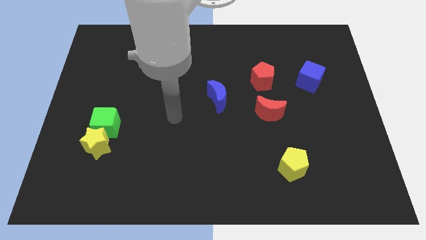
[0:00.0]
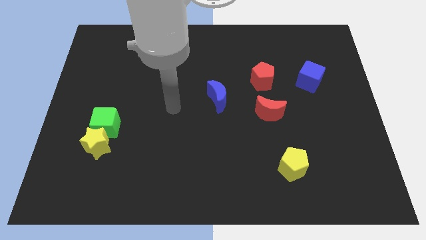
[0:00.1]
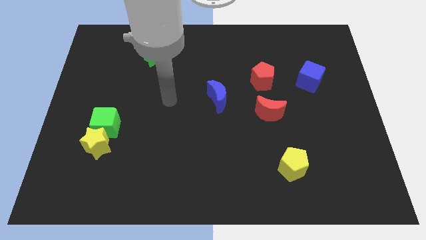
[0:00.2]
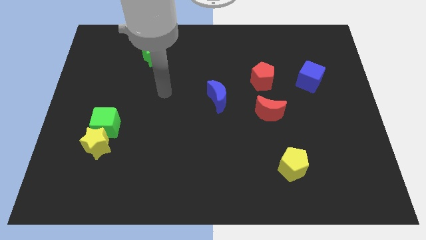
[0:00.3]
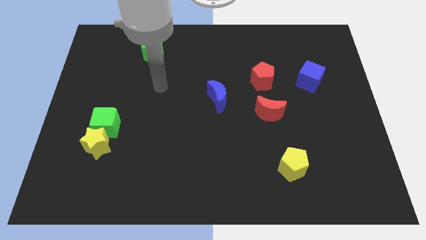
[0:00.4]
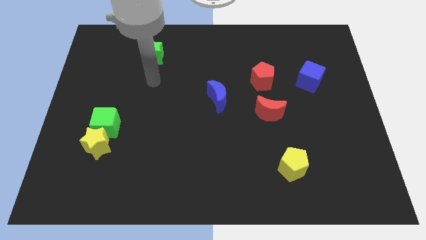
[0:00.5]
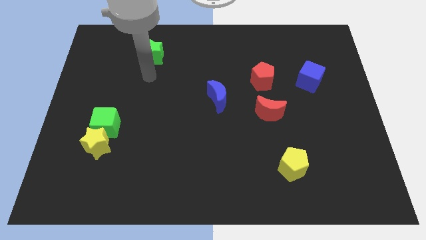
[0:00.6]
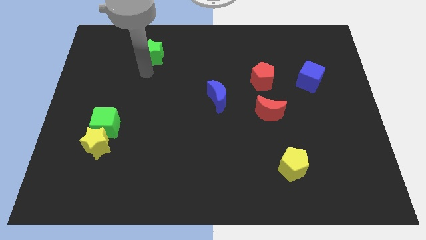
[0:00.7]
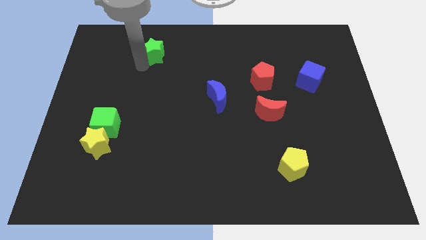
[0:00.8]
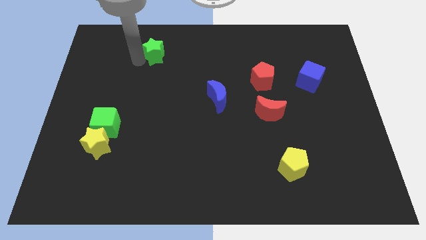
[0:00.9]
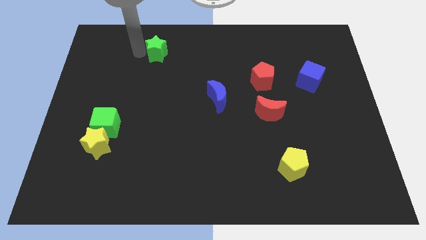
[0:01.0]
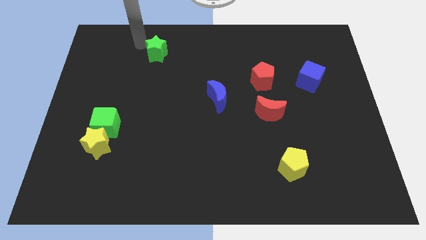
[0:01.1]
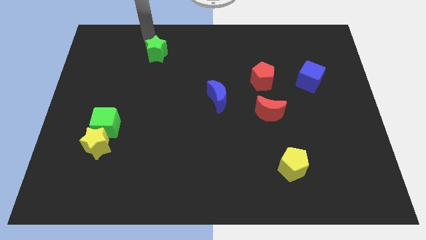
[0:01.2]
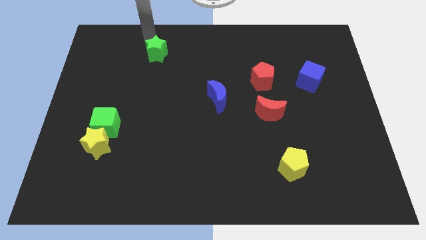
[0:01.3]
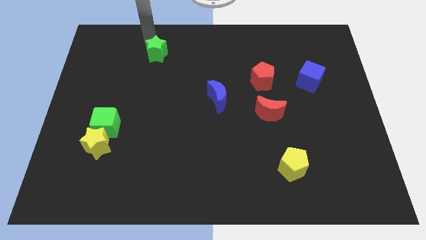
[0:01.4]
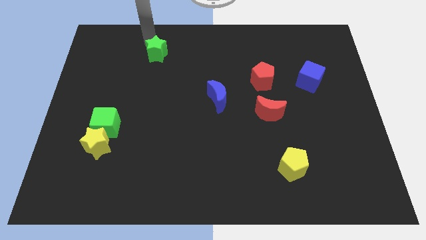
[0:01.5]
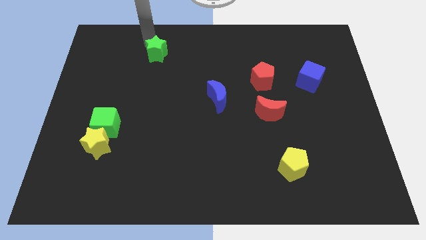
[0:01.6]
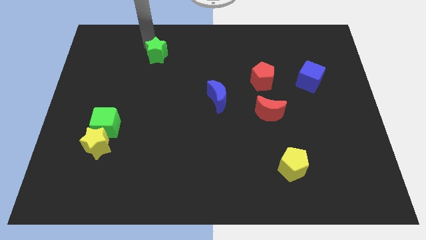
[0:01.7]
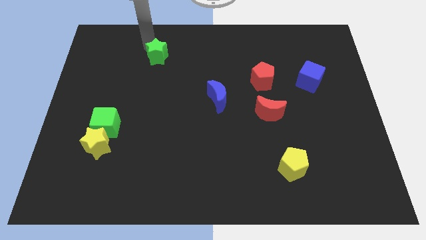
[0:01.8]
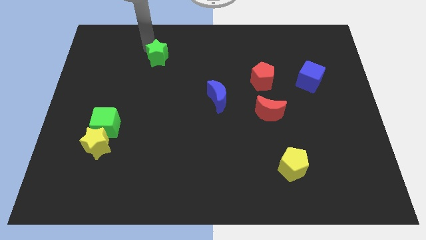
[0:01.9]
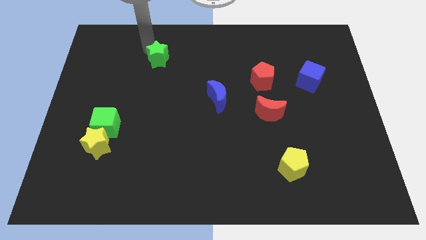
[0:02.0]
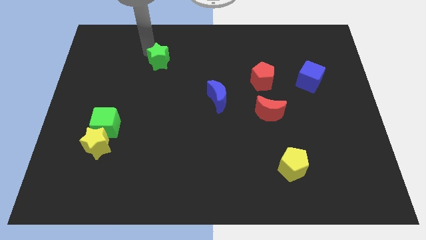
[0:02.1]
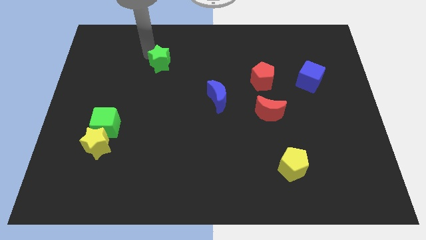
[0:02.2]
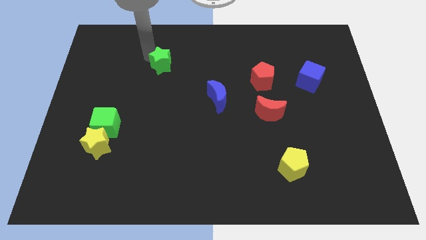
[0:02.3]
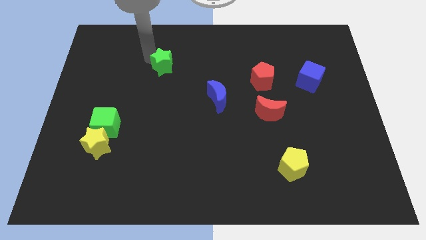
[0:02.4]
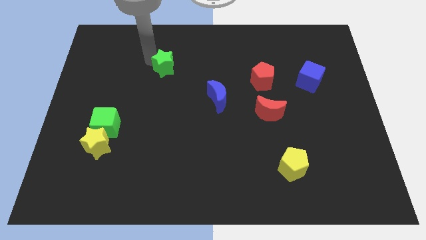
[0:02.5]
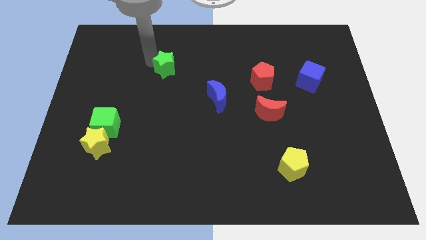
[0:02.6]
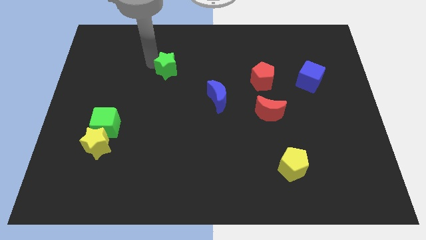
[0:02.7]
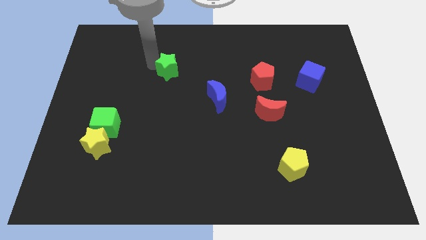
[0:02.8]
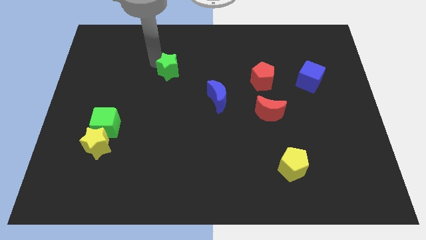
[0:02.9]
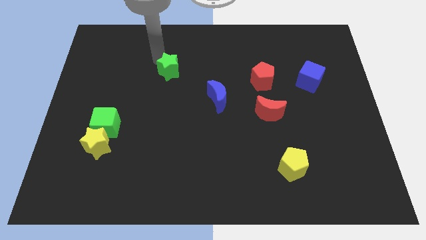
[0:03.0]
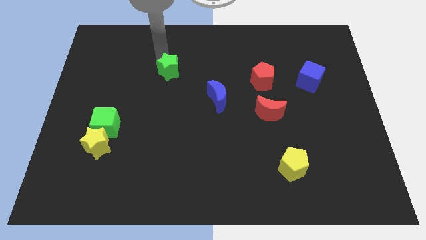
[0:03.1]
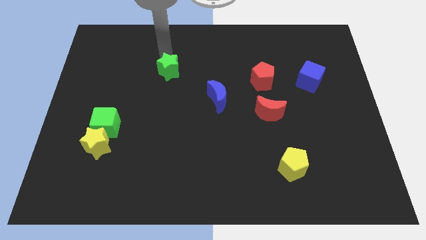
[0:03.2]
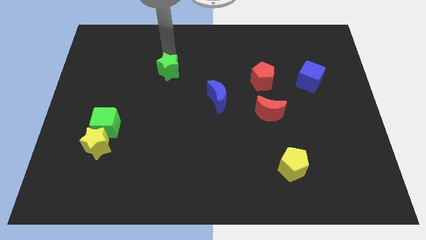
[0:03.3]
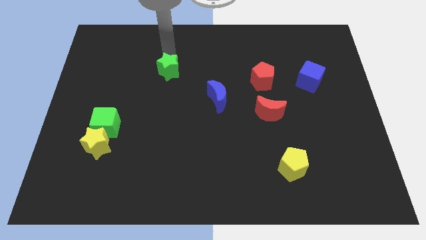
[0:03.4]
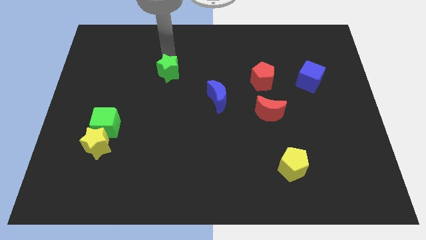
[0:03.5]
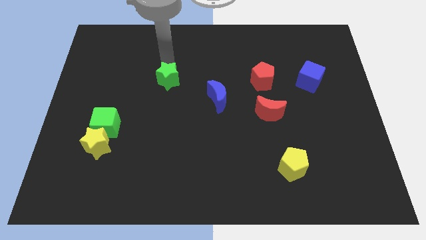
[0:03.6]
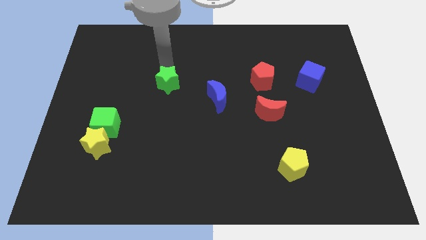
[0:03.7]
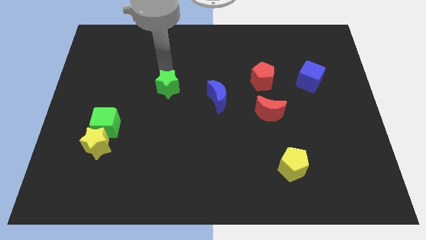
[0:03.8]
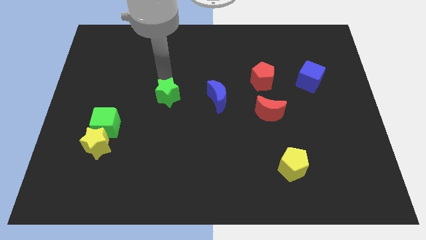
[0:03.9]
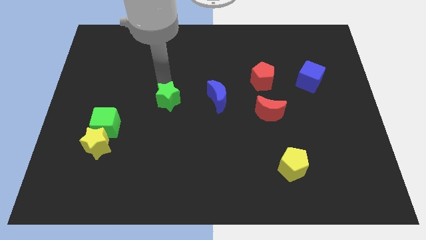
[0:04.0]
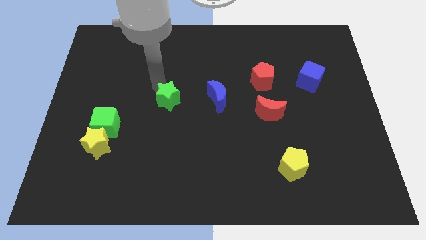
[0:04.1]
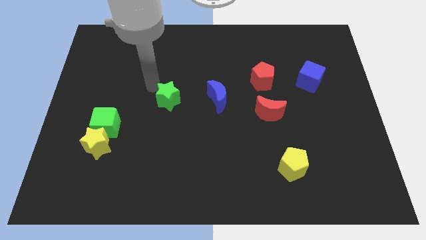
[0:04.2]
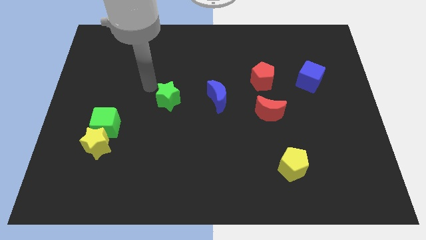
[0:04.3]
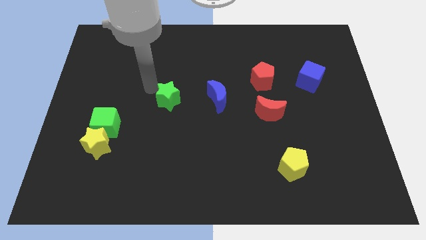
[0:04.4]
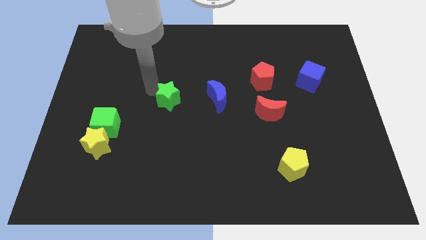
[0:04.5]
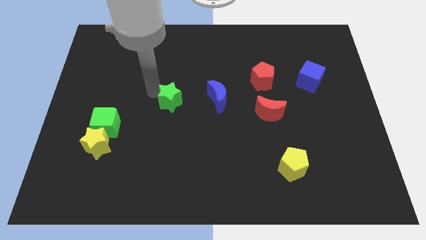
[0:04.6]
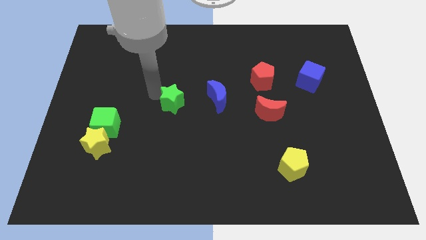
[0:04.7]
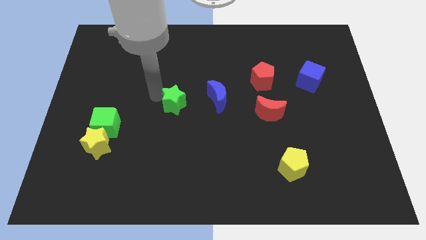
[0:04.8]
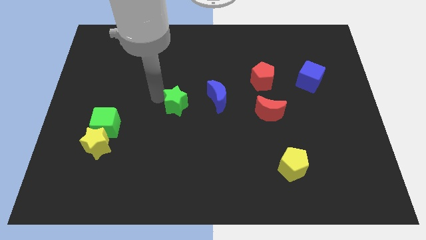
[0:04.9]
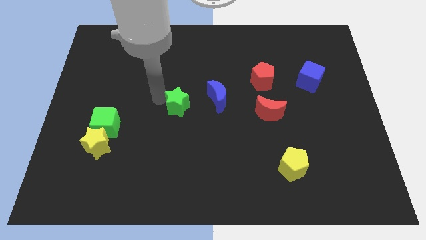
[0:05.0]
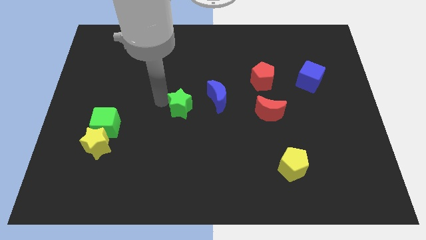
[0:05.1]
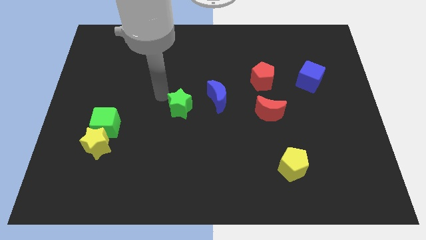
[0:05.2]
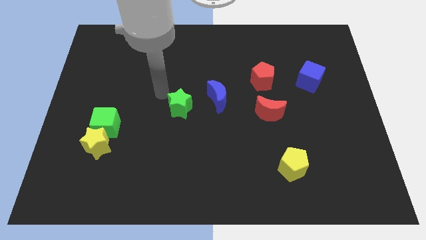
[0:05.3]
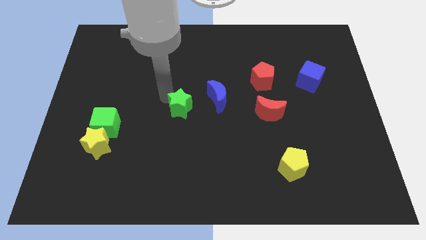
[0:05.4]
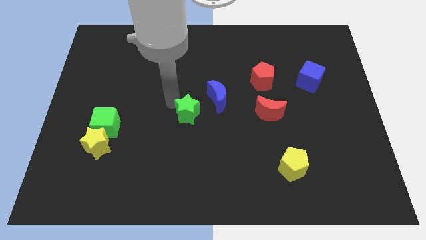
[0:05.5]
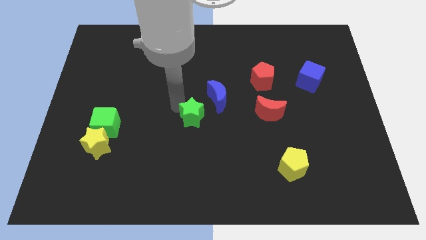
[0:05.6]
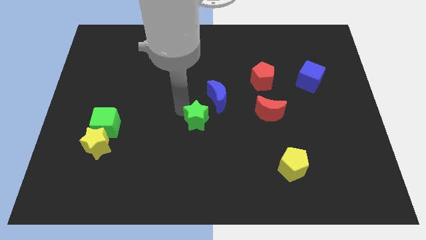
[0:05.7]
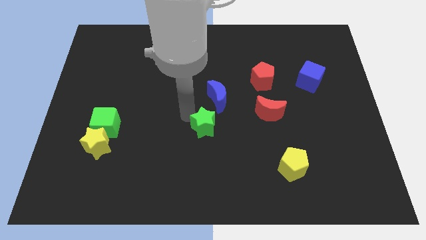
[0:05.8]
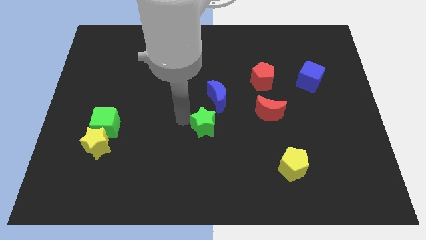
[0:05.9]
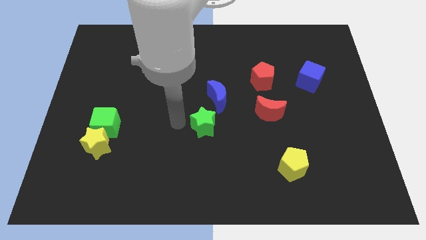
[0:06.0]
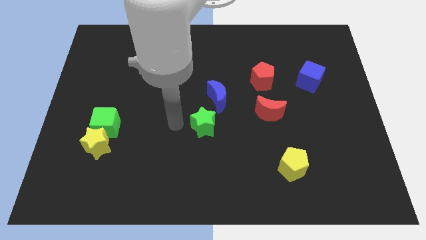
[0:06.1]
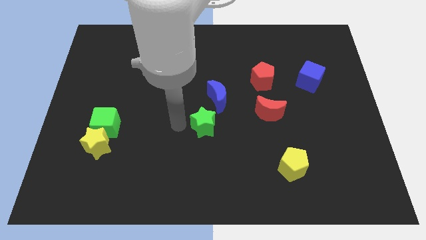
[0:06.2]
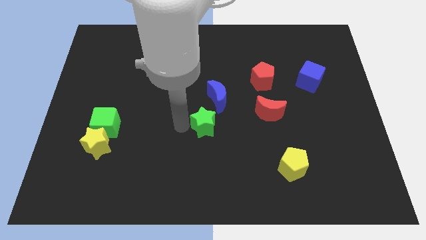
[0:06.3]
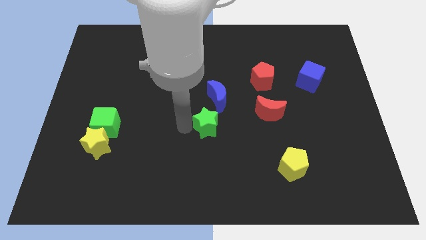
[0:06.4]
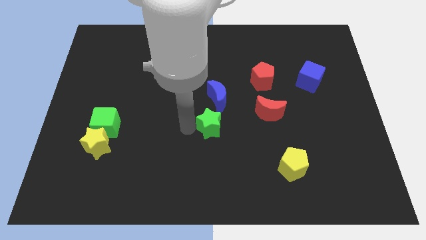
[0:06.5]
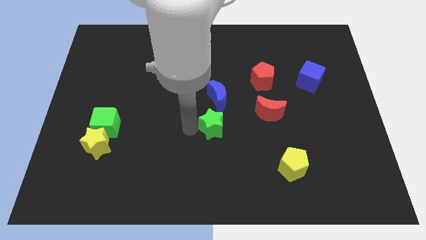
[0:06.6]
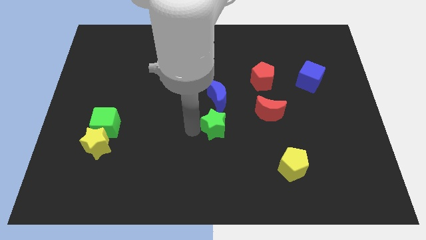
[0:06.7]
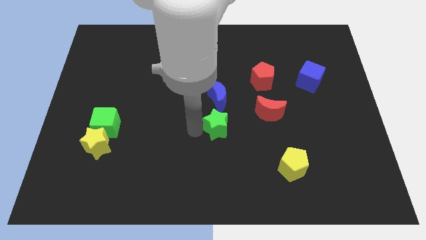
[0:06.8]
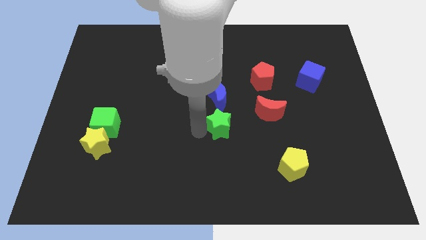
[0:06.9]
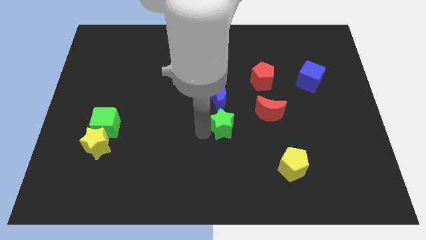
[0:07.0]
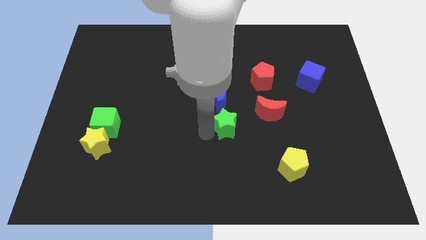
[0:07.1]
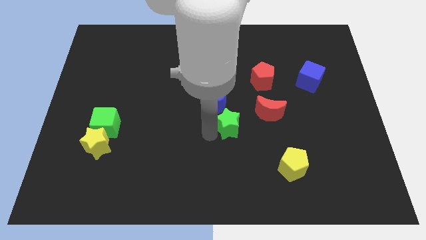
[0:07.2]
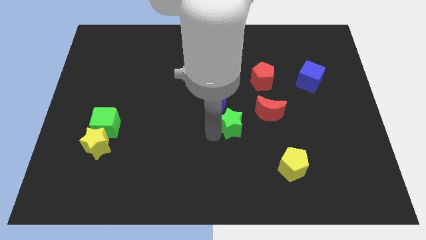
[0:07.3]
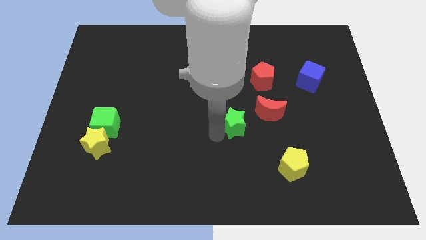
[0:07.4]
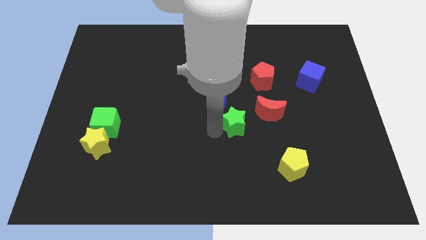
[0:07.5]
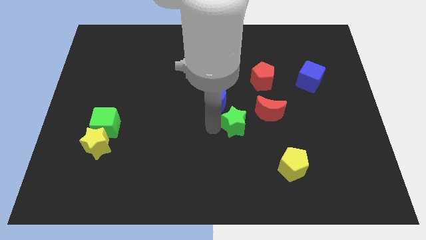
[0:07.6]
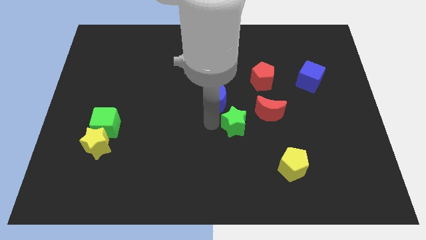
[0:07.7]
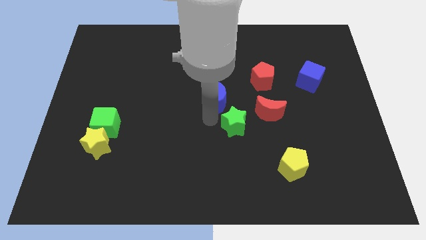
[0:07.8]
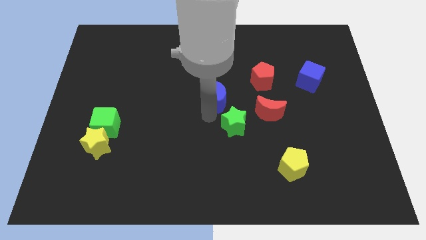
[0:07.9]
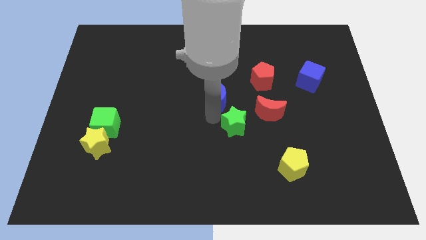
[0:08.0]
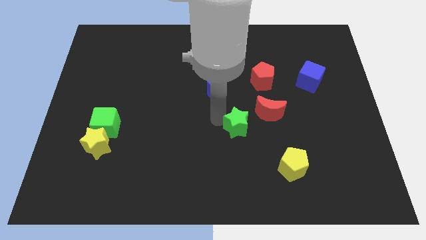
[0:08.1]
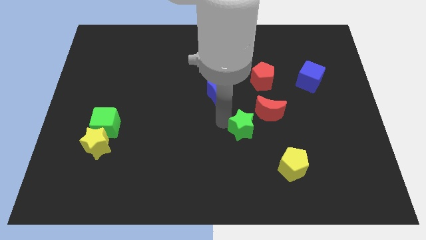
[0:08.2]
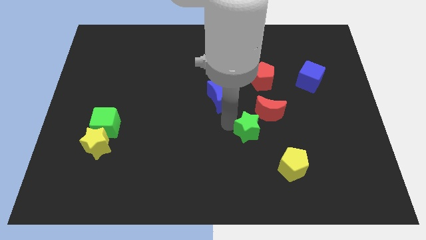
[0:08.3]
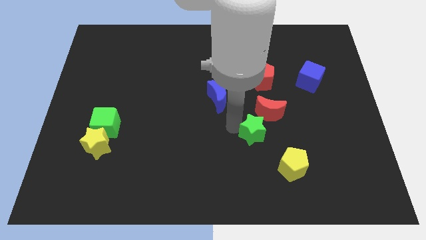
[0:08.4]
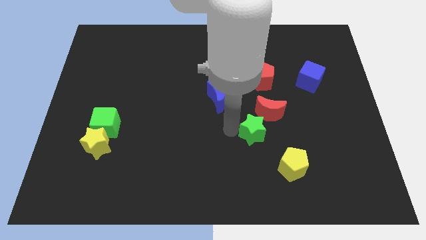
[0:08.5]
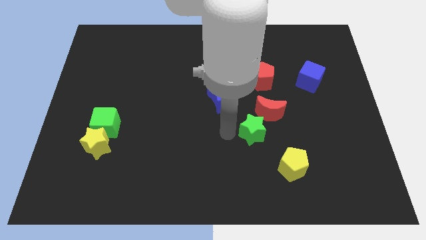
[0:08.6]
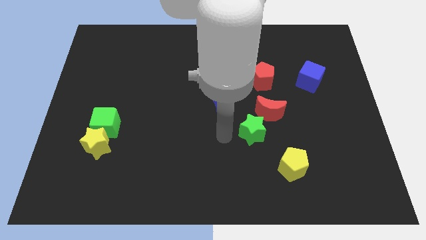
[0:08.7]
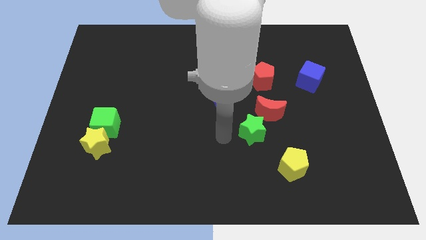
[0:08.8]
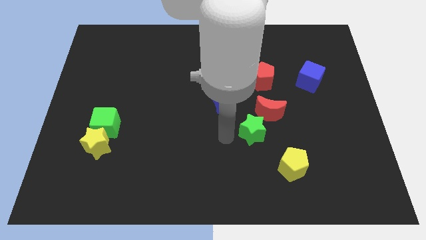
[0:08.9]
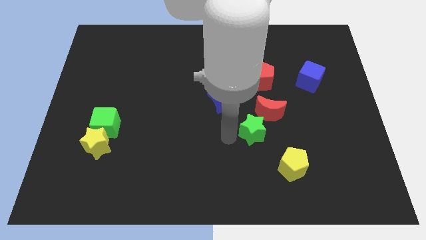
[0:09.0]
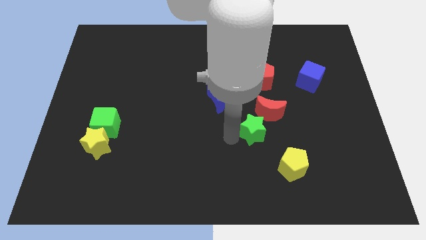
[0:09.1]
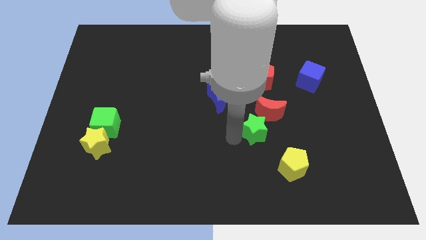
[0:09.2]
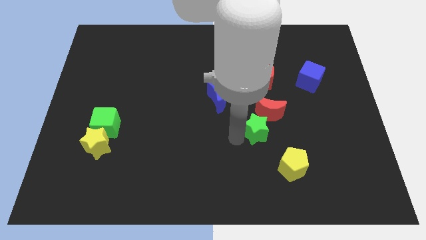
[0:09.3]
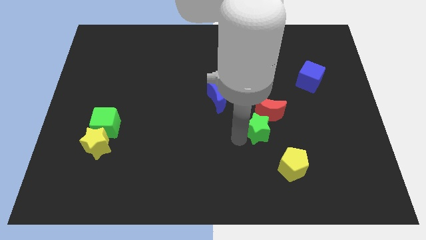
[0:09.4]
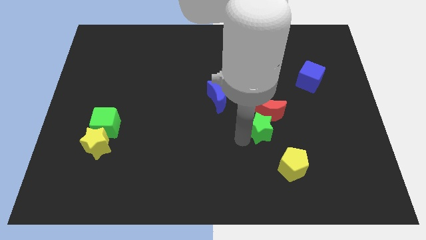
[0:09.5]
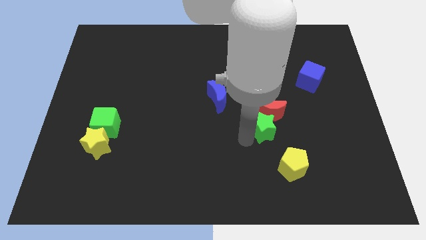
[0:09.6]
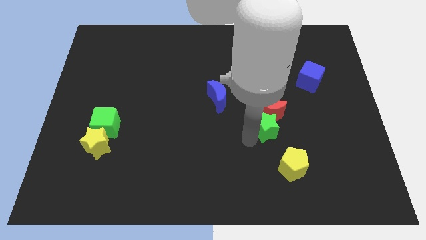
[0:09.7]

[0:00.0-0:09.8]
push the green star above the yellow pentagon
